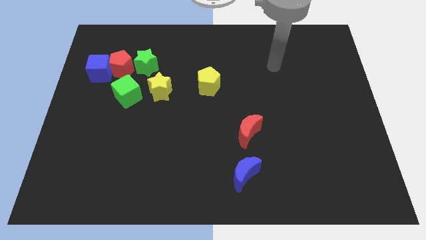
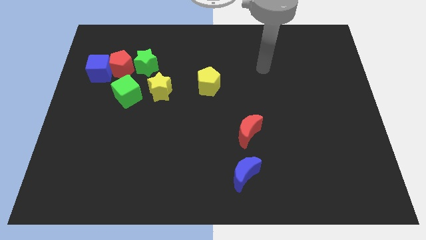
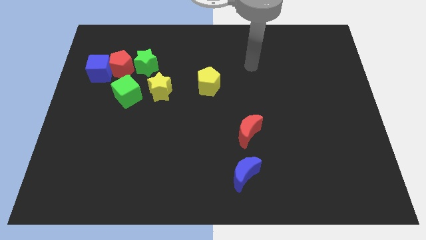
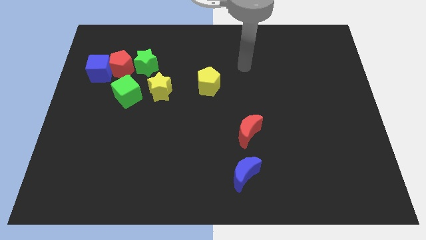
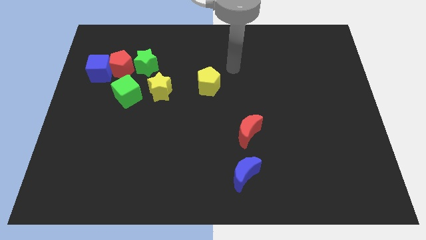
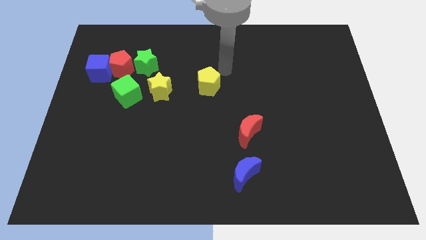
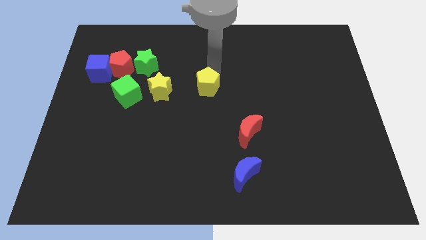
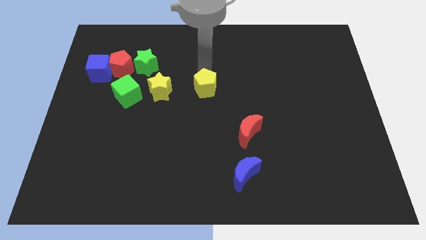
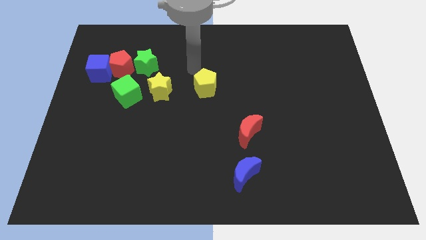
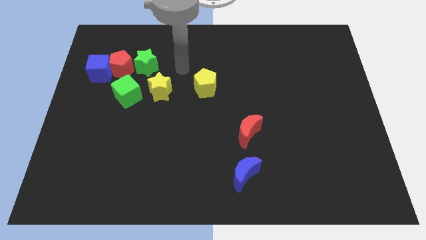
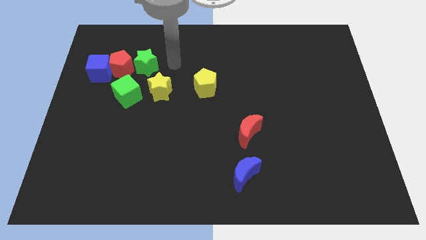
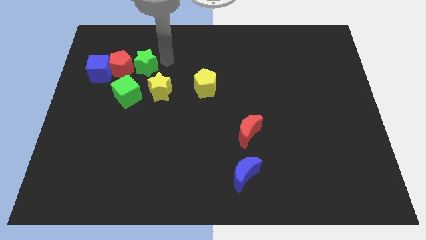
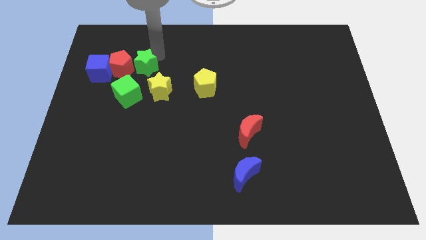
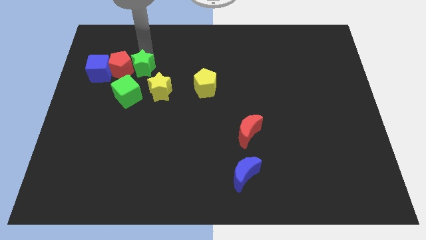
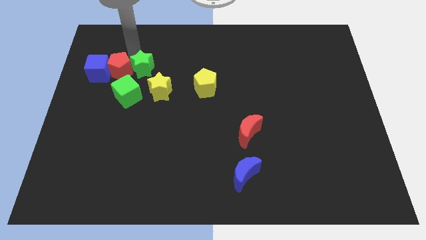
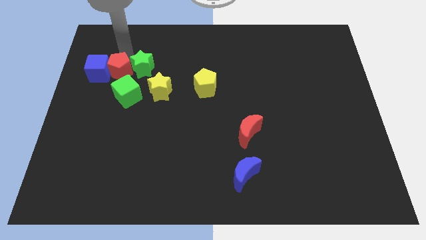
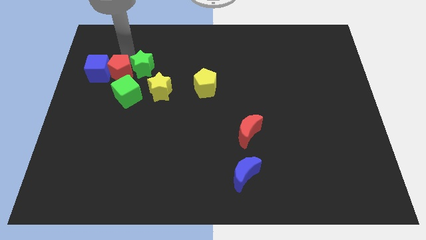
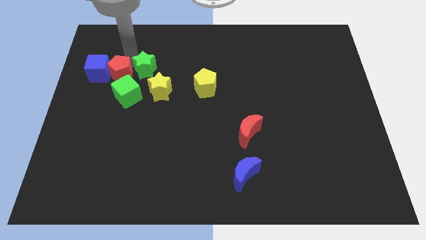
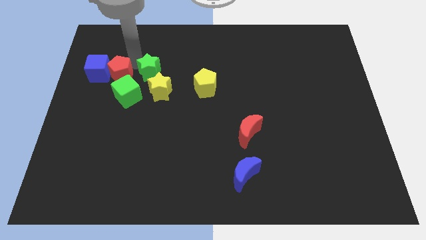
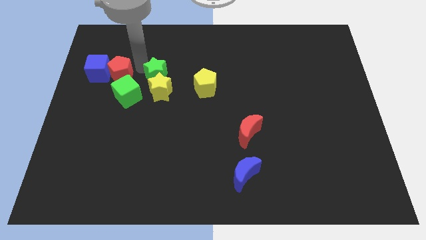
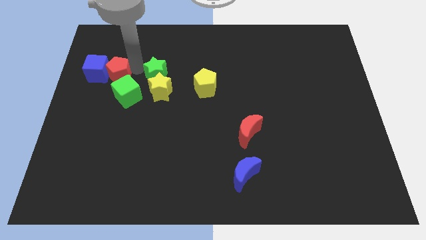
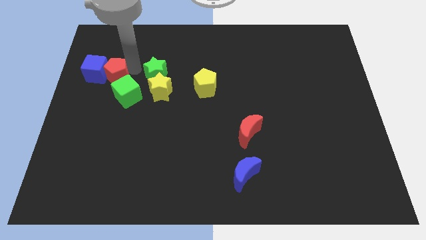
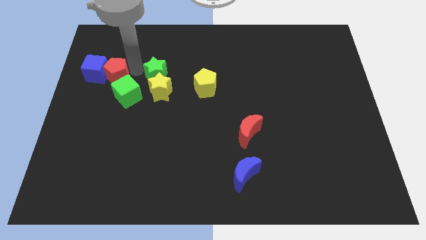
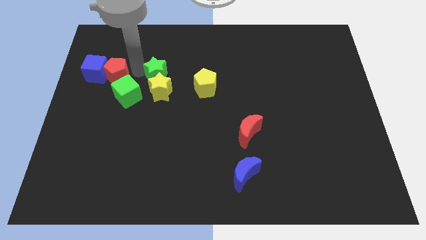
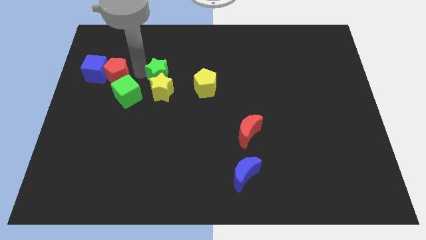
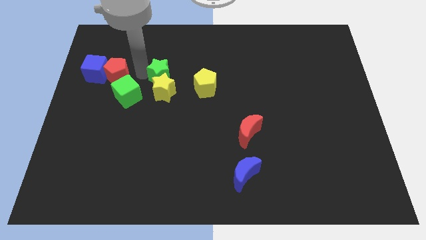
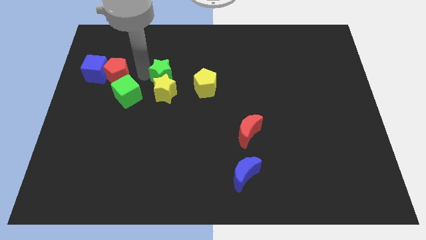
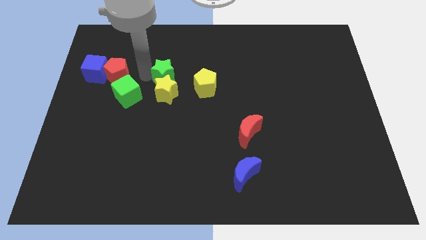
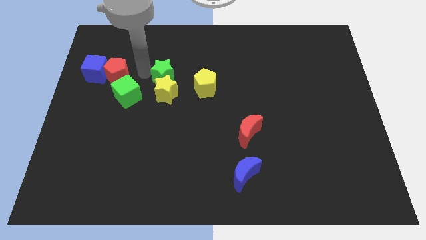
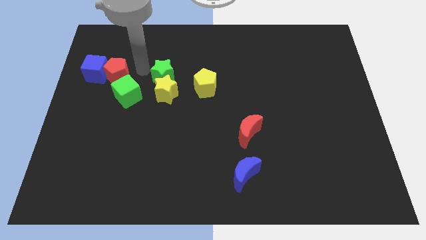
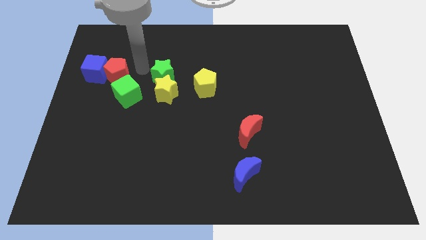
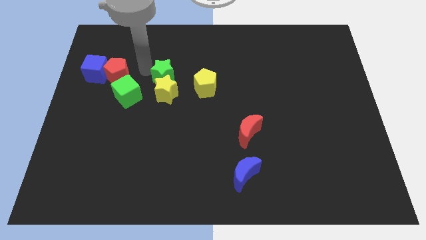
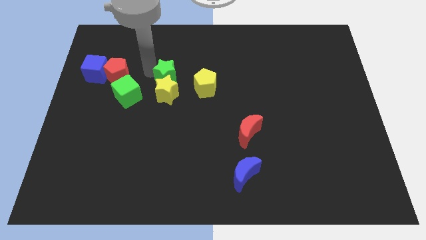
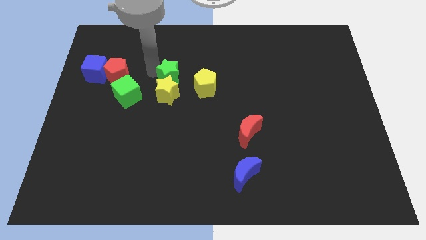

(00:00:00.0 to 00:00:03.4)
slide the green star a little bit downwards and to the right

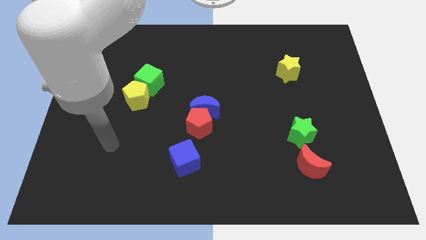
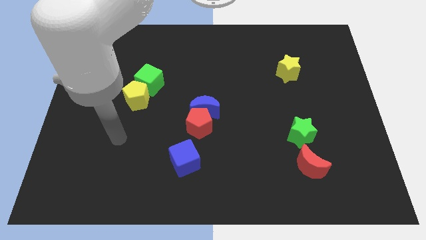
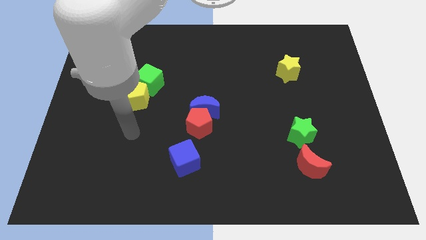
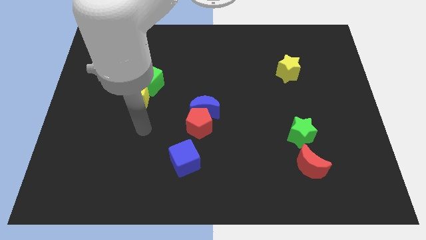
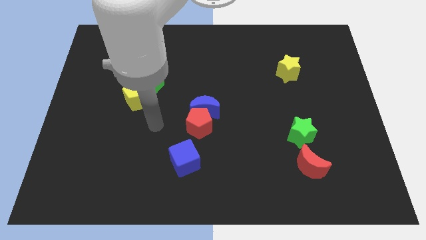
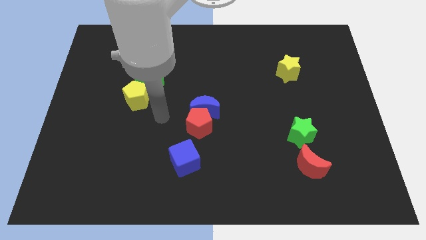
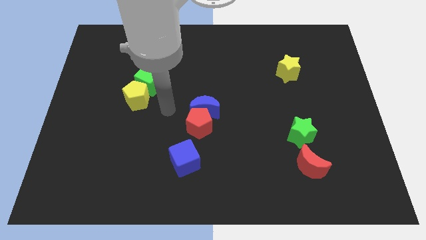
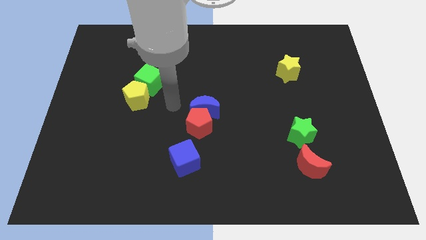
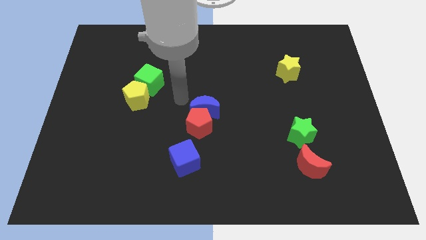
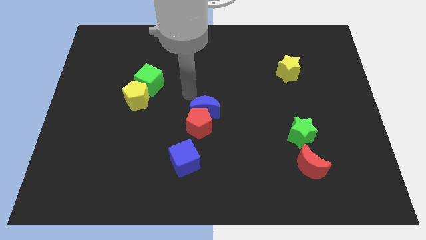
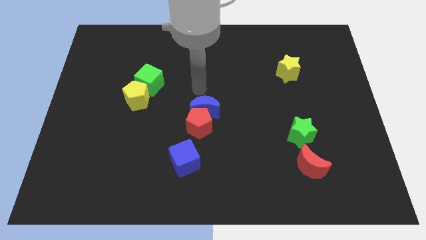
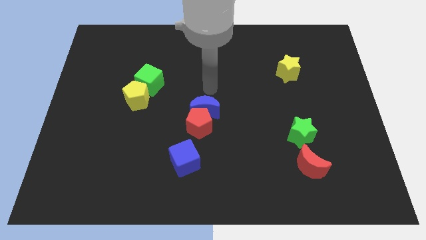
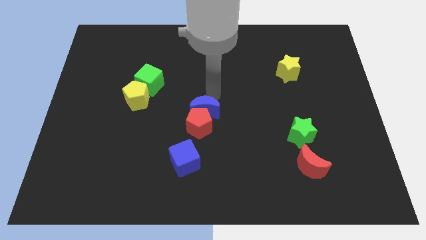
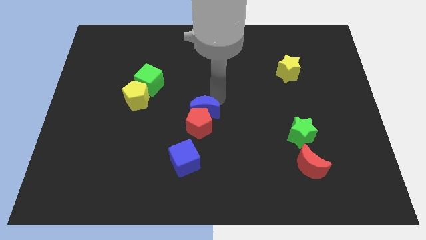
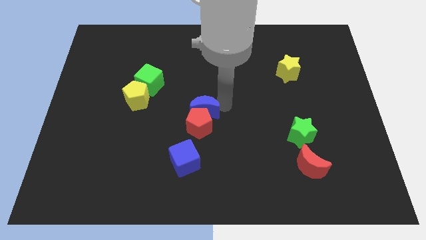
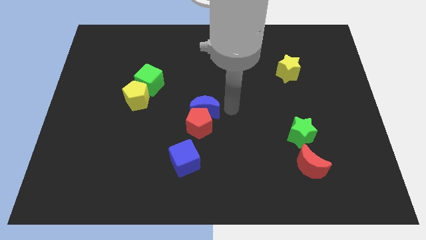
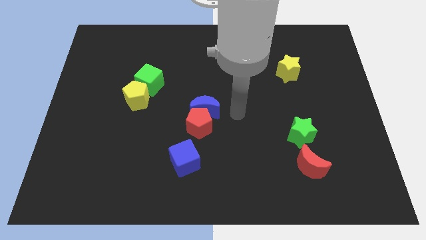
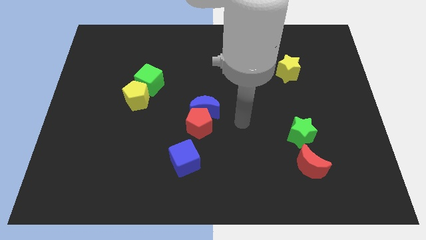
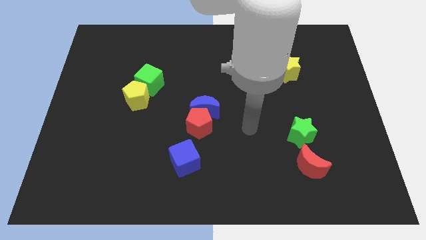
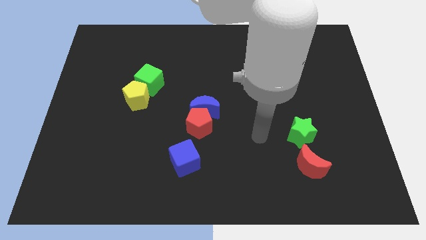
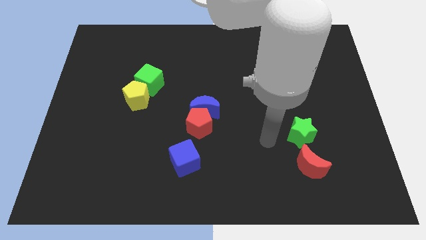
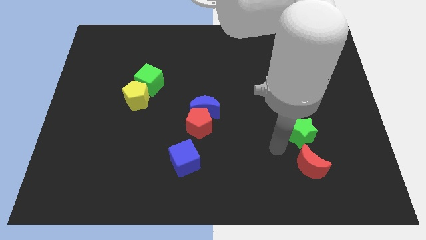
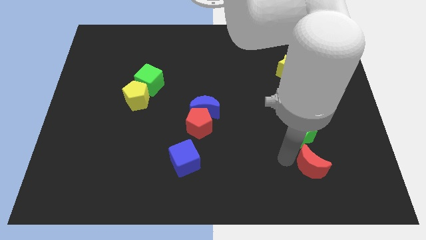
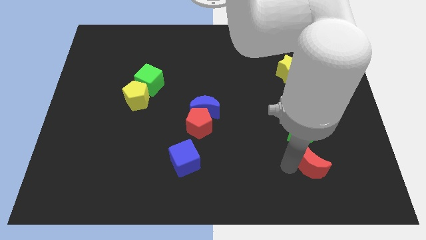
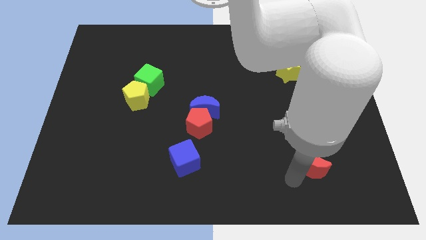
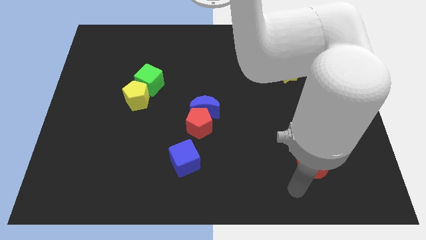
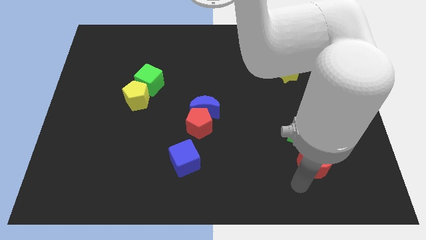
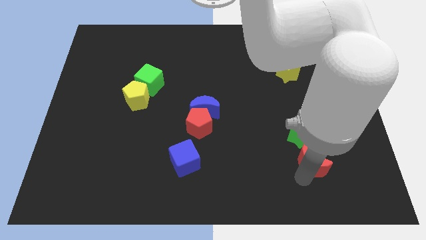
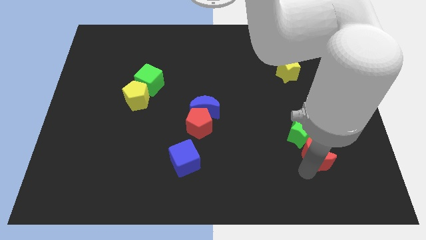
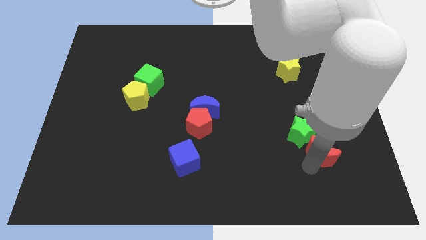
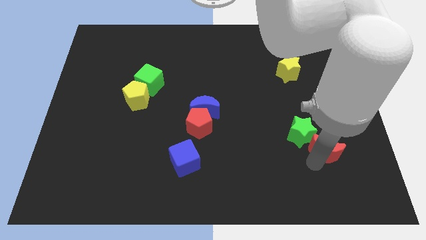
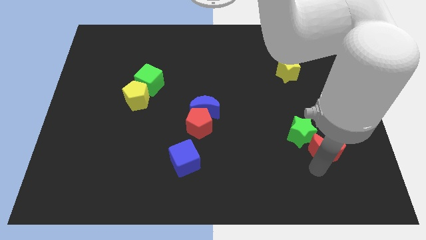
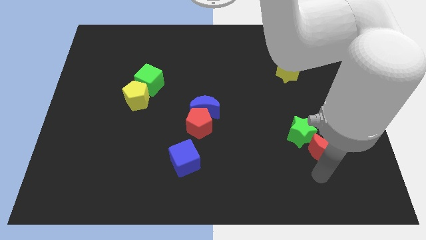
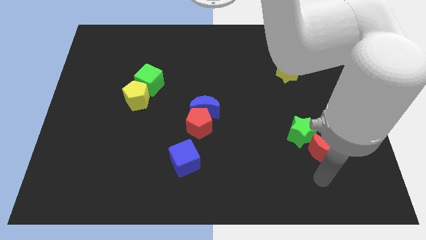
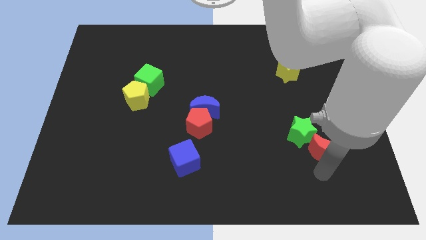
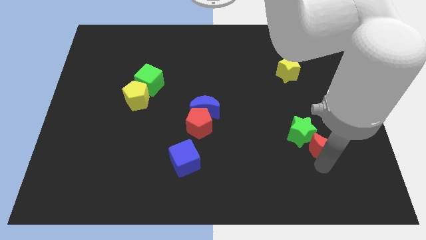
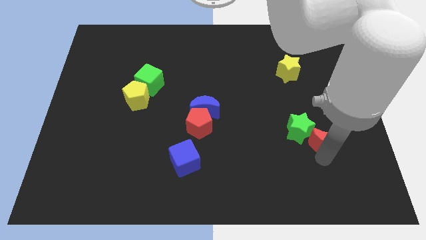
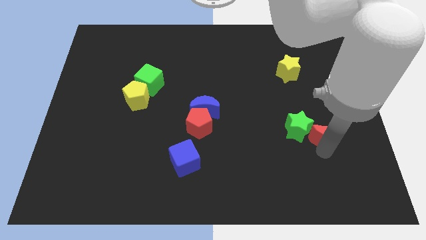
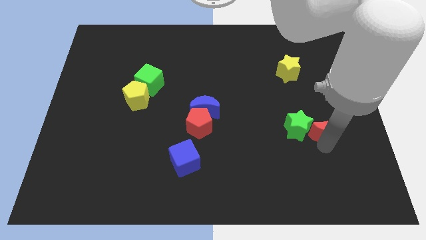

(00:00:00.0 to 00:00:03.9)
slightly push the red moon upwards

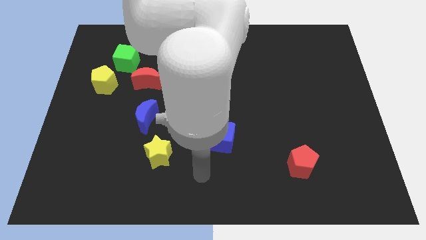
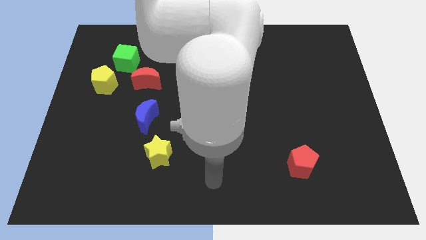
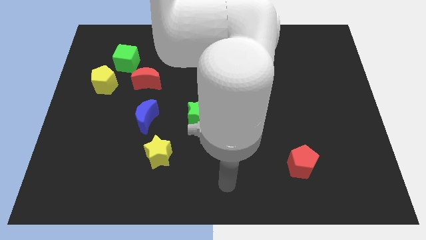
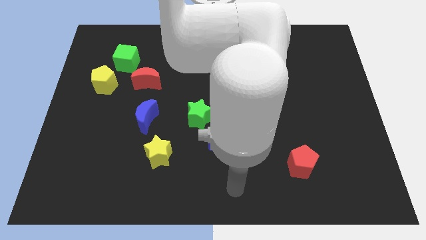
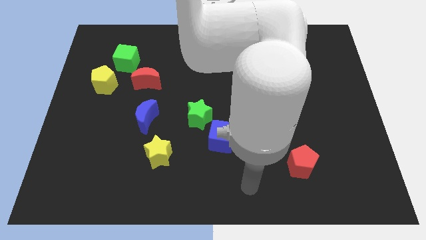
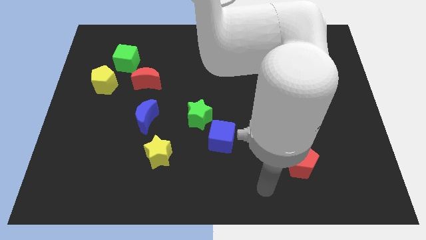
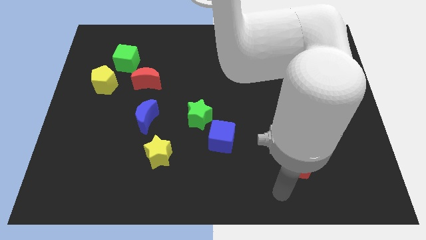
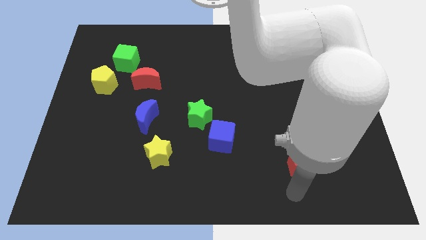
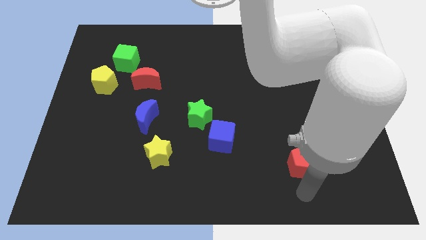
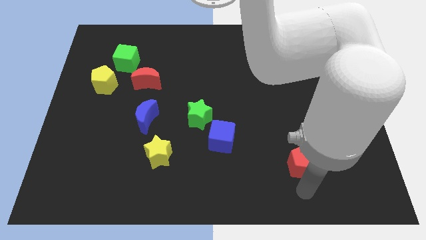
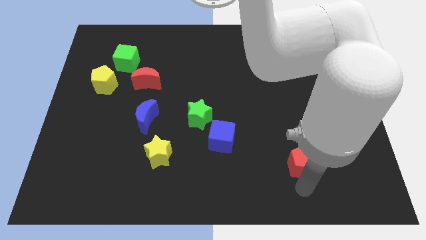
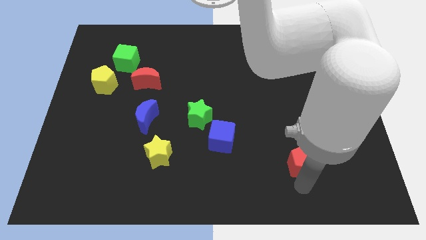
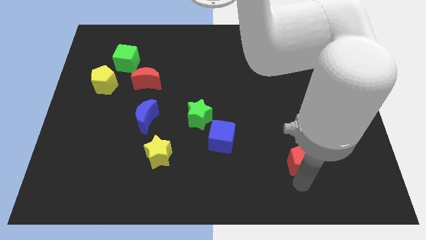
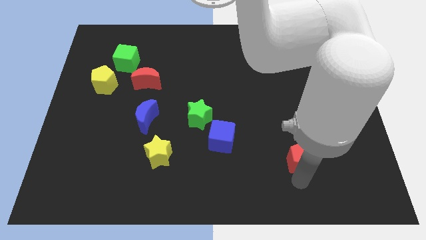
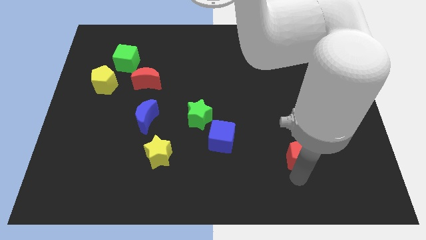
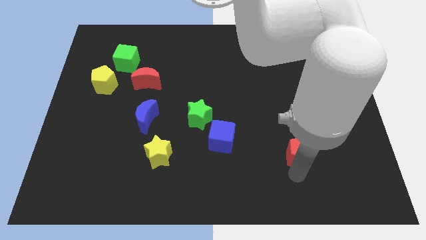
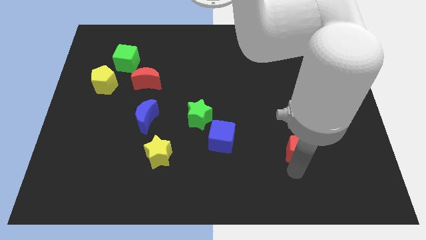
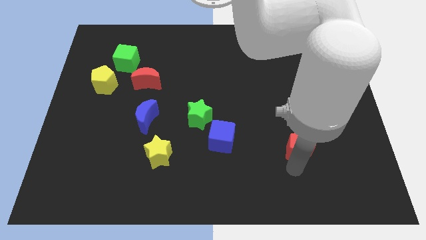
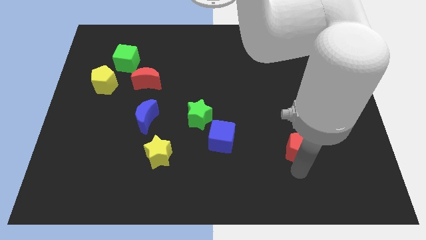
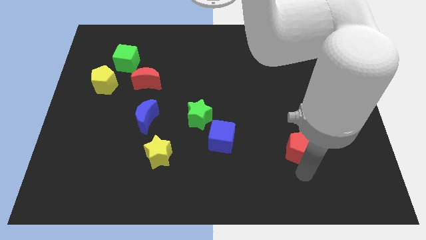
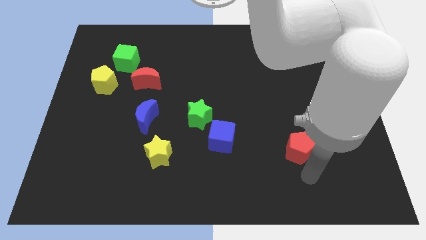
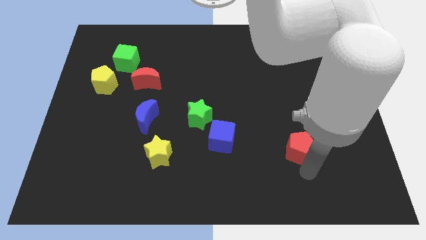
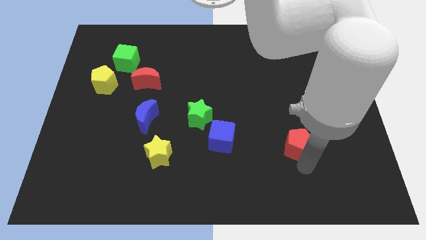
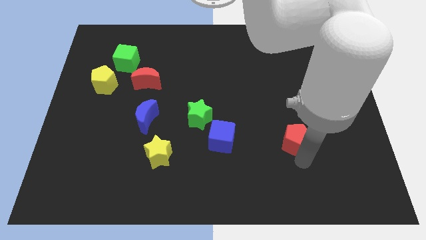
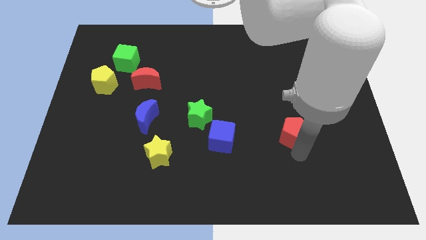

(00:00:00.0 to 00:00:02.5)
move the red pentagon up a little bit
